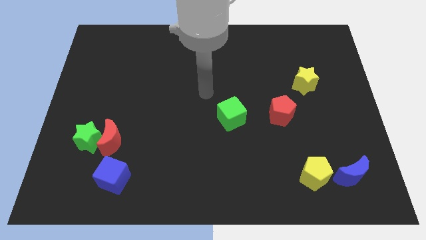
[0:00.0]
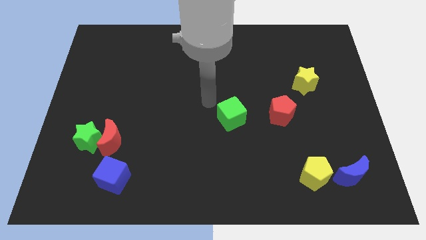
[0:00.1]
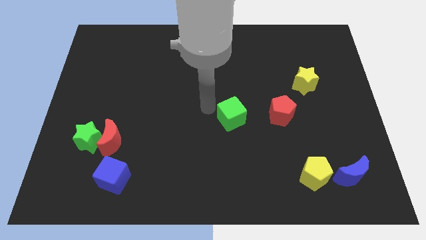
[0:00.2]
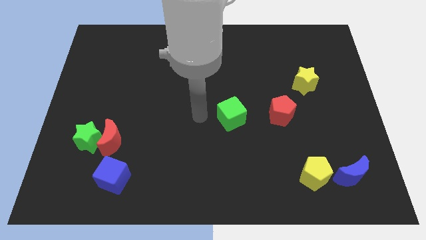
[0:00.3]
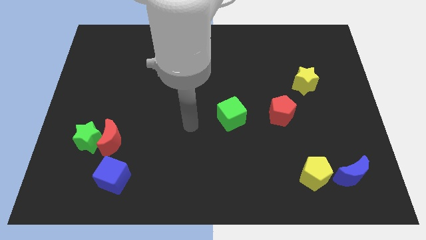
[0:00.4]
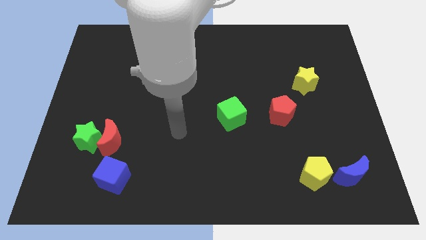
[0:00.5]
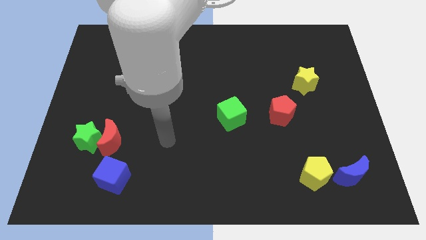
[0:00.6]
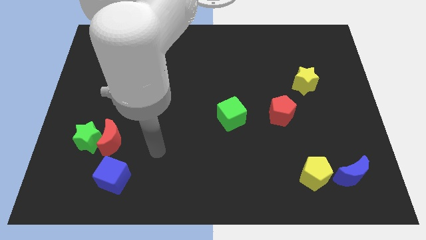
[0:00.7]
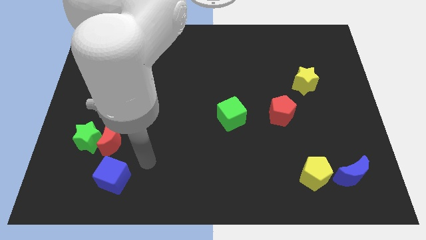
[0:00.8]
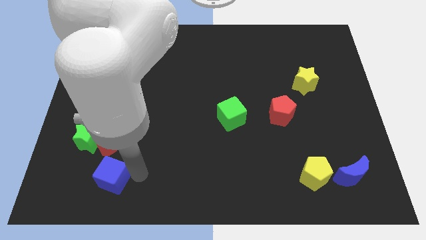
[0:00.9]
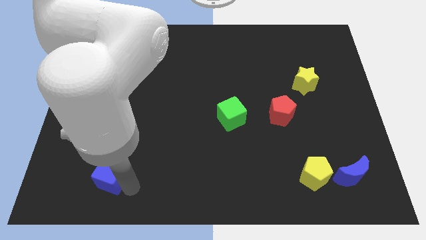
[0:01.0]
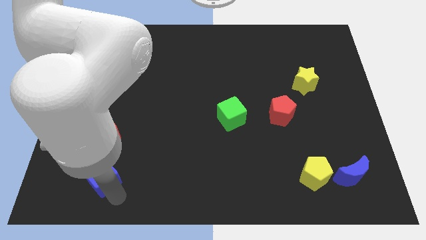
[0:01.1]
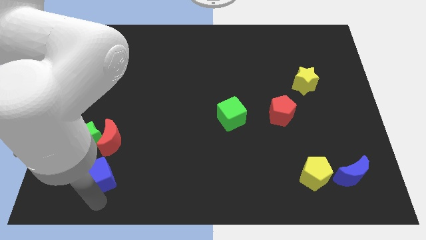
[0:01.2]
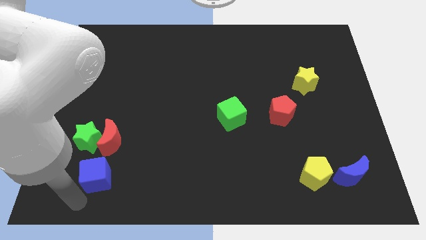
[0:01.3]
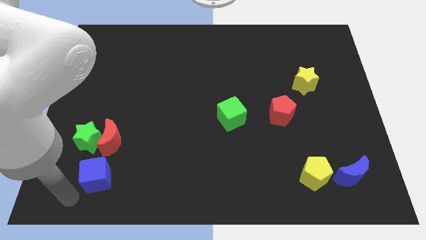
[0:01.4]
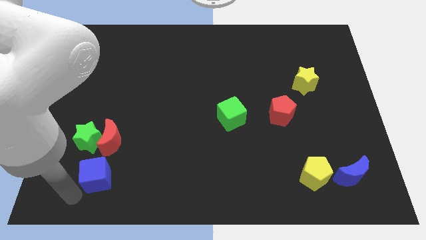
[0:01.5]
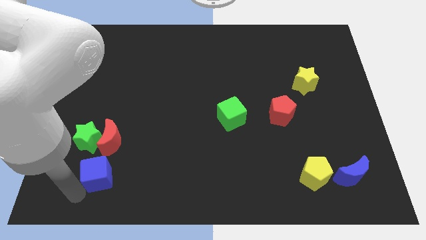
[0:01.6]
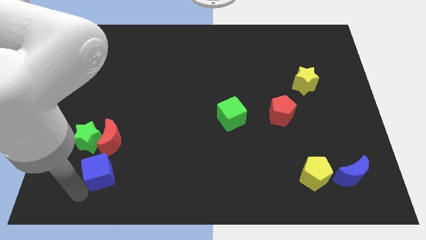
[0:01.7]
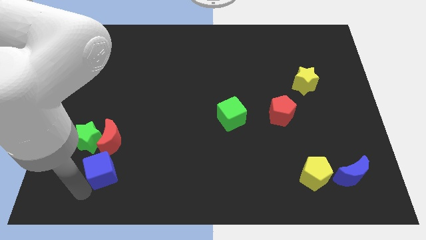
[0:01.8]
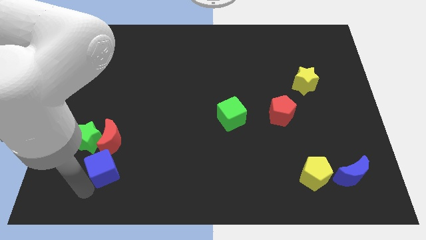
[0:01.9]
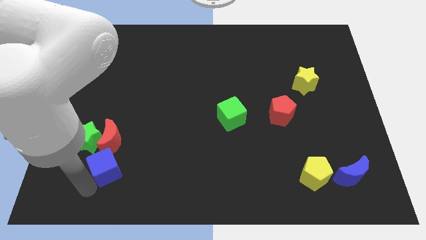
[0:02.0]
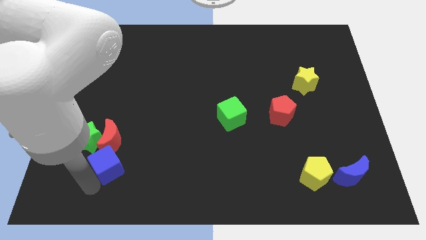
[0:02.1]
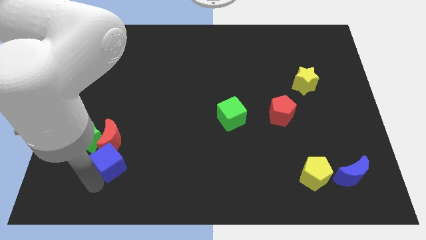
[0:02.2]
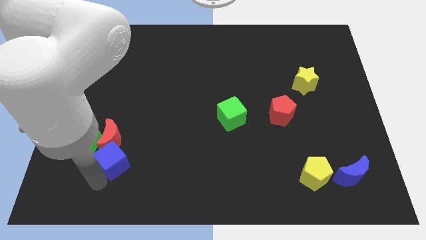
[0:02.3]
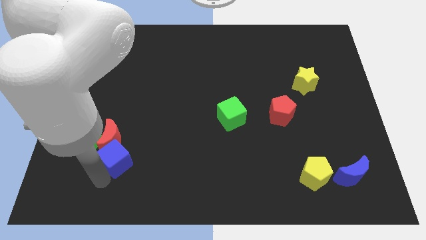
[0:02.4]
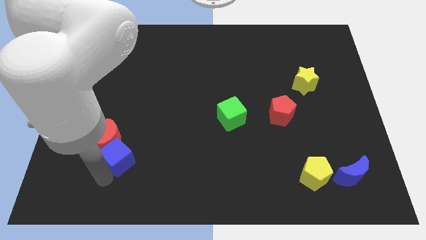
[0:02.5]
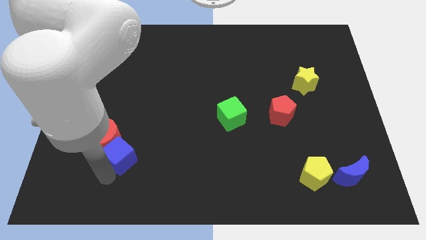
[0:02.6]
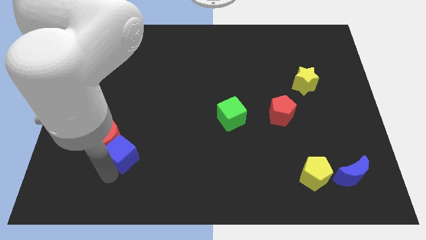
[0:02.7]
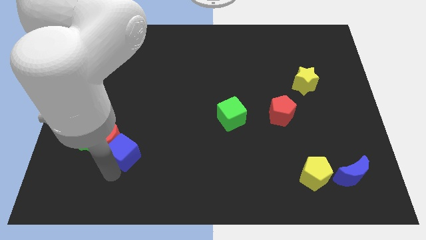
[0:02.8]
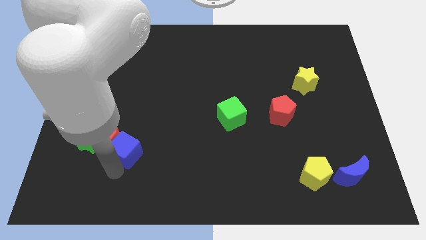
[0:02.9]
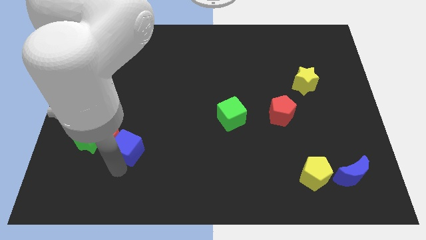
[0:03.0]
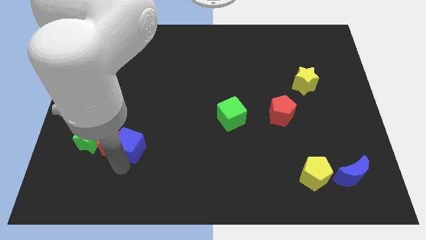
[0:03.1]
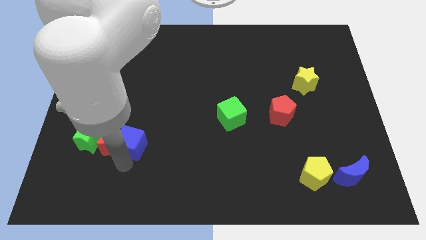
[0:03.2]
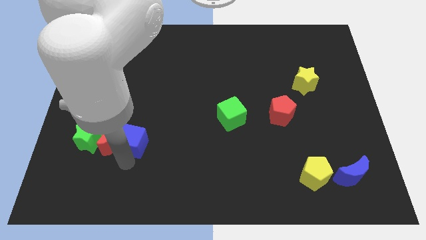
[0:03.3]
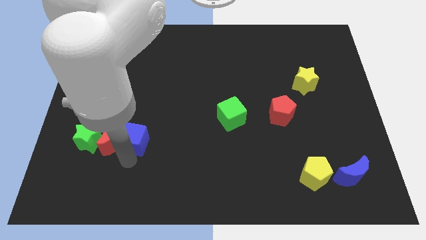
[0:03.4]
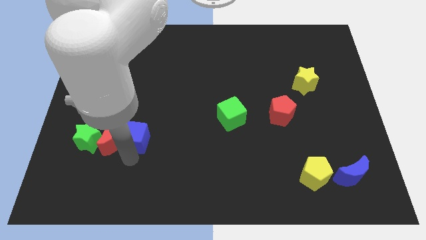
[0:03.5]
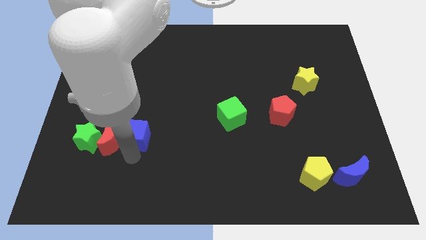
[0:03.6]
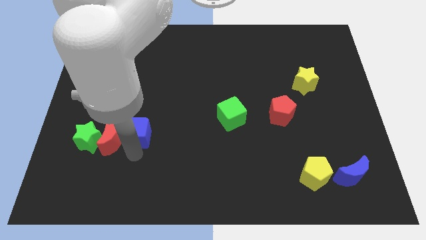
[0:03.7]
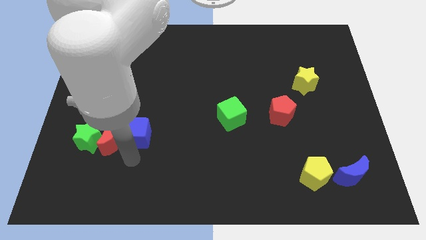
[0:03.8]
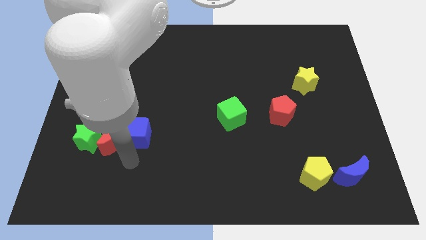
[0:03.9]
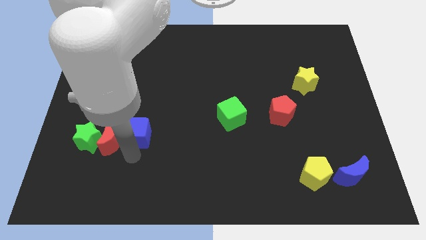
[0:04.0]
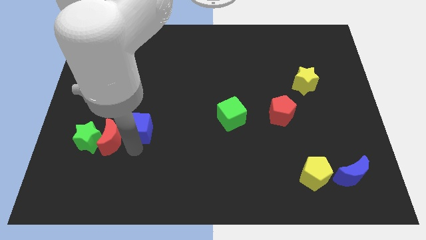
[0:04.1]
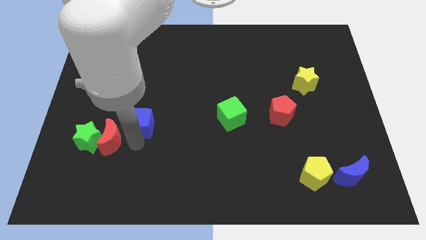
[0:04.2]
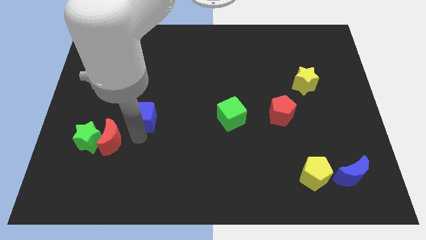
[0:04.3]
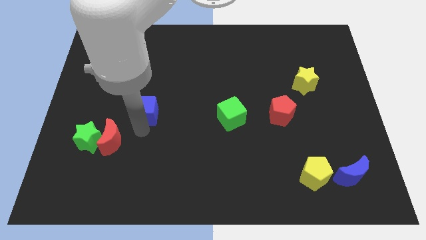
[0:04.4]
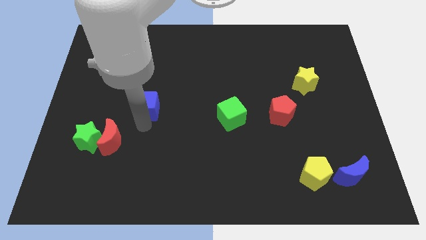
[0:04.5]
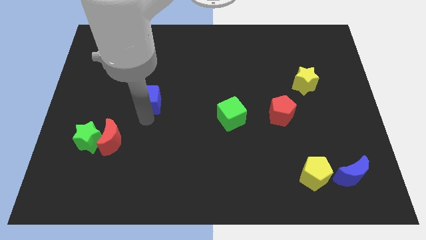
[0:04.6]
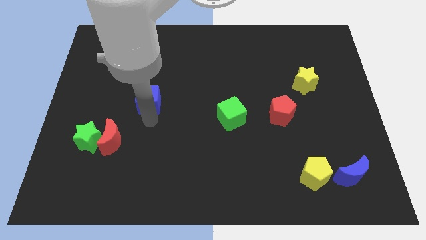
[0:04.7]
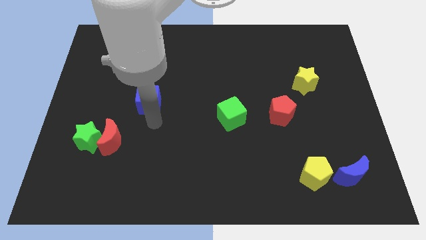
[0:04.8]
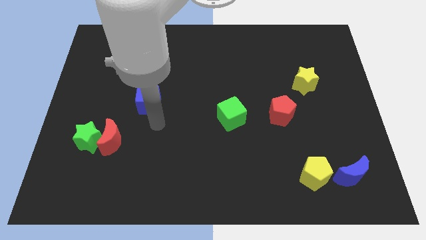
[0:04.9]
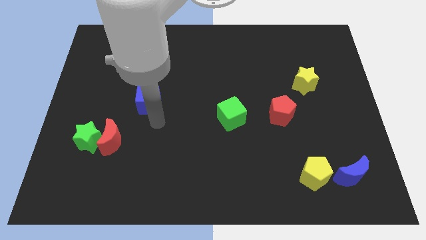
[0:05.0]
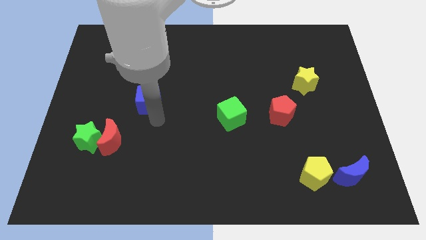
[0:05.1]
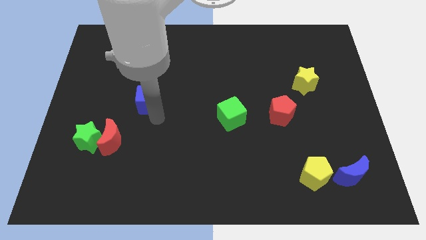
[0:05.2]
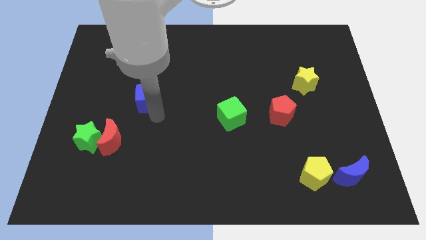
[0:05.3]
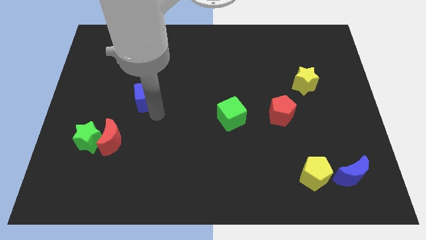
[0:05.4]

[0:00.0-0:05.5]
move the blue cube up

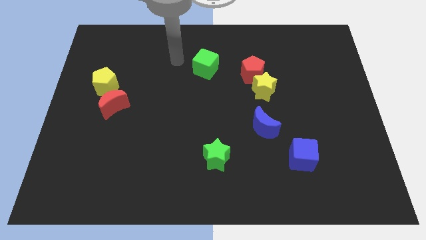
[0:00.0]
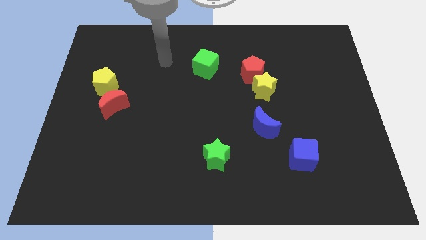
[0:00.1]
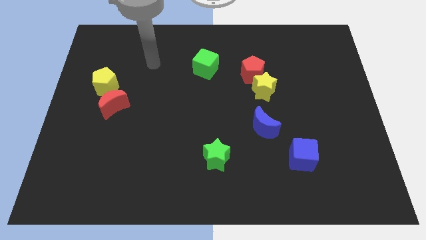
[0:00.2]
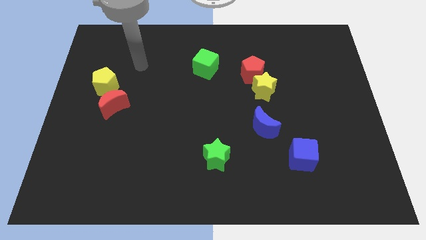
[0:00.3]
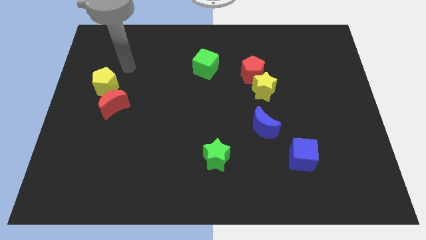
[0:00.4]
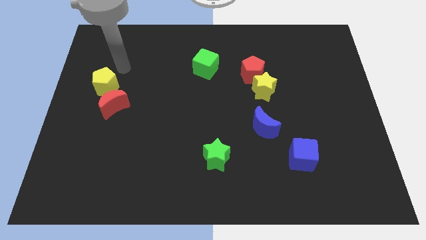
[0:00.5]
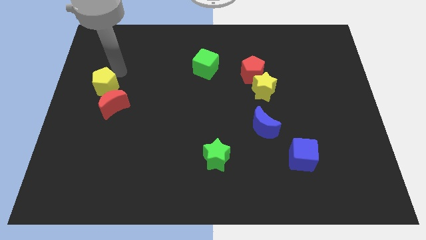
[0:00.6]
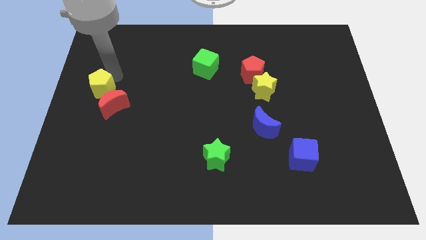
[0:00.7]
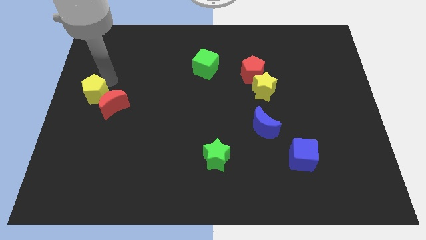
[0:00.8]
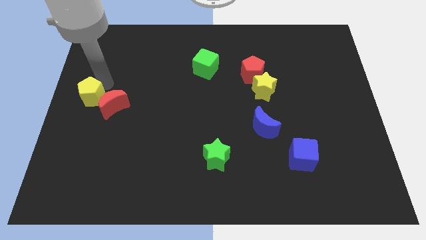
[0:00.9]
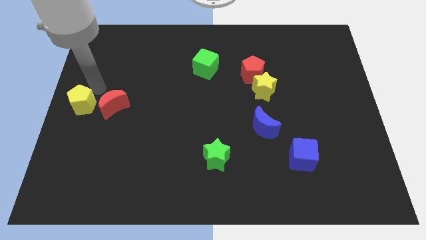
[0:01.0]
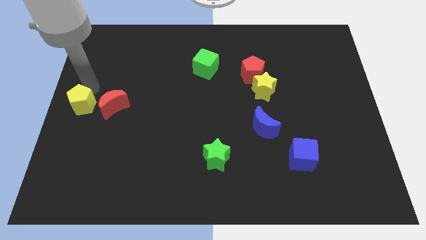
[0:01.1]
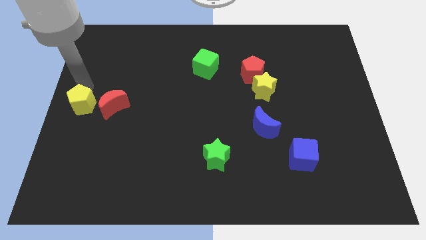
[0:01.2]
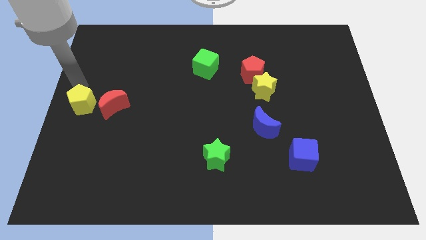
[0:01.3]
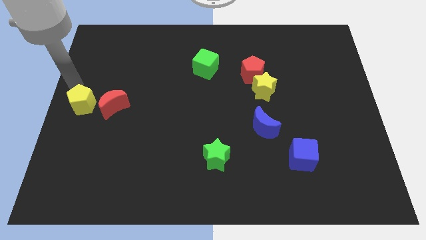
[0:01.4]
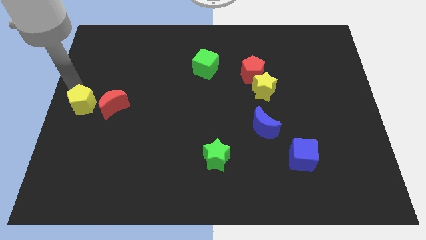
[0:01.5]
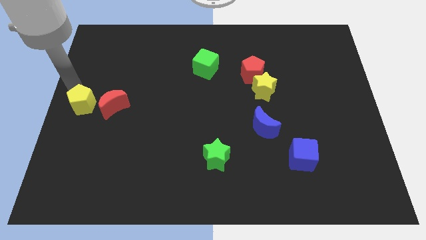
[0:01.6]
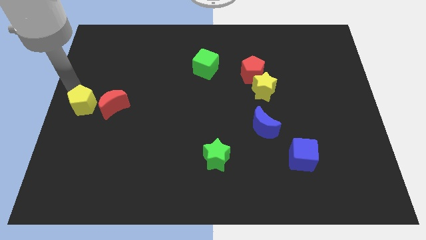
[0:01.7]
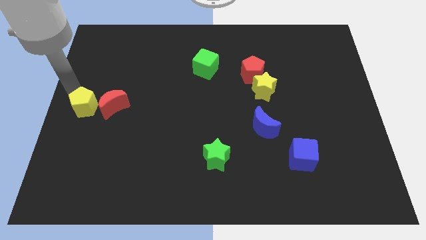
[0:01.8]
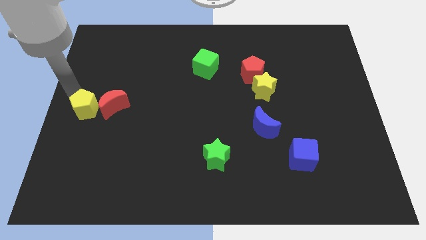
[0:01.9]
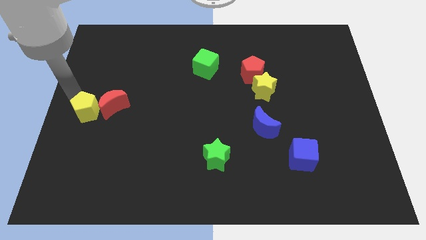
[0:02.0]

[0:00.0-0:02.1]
push the yellow pentagon down a bit

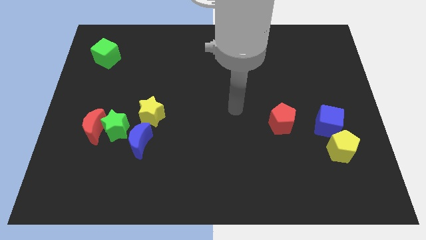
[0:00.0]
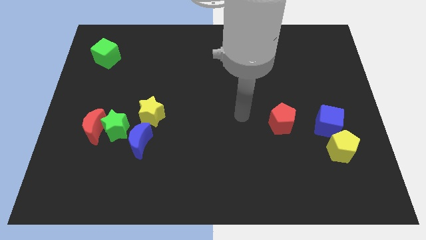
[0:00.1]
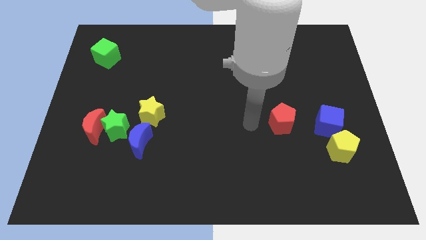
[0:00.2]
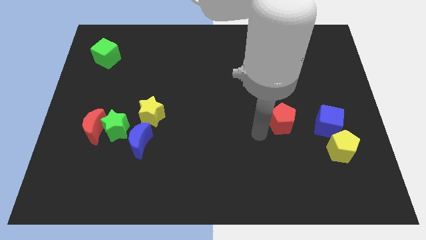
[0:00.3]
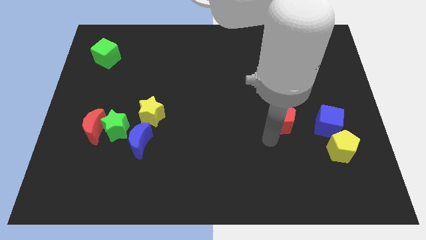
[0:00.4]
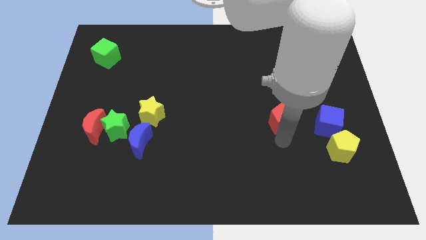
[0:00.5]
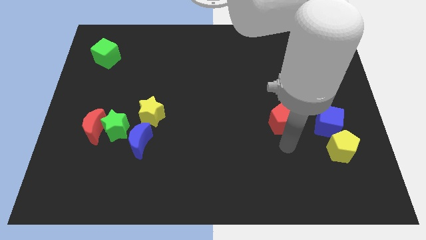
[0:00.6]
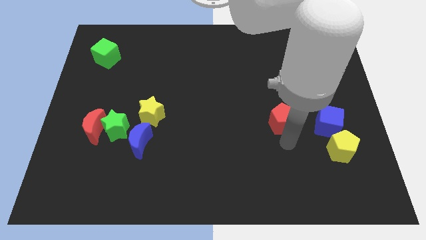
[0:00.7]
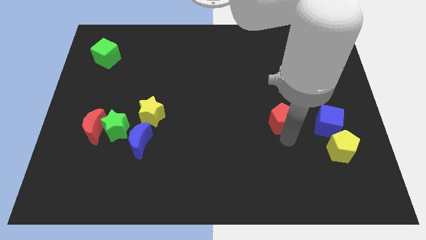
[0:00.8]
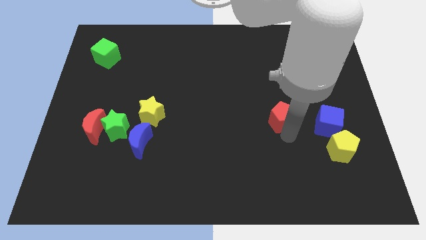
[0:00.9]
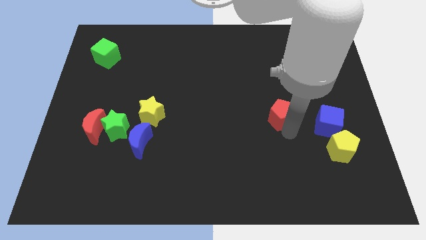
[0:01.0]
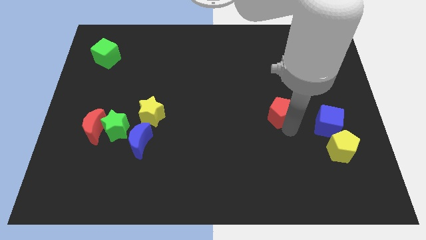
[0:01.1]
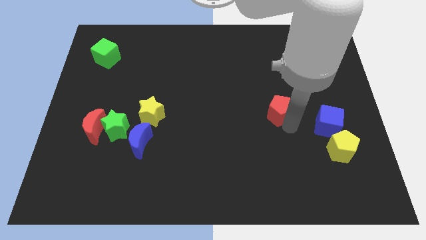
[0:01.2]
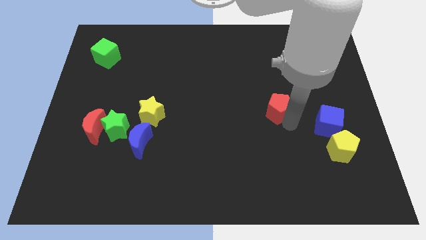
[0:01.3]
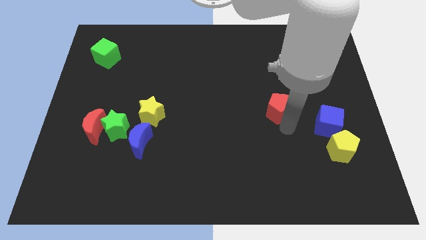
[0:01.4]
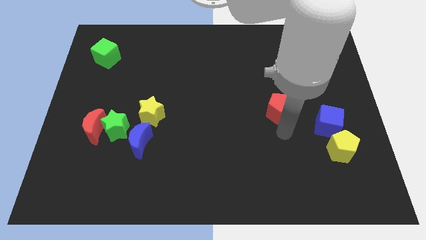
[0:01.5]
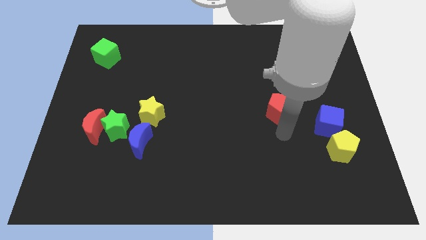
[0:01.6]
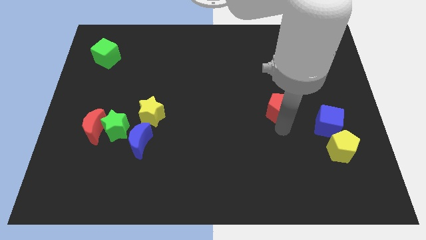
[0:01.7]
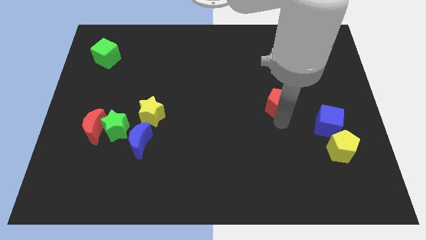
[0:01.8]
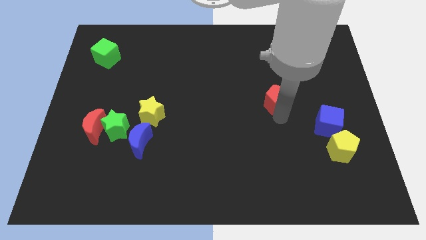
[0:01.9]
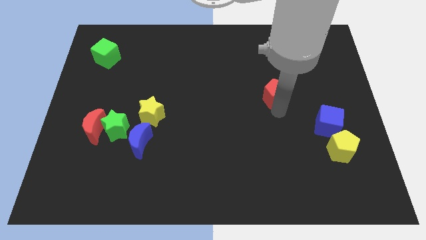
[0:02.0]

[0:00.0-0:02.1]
move the red pentagon upwards somewhat
